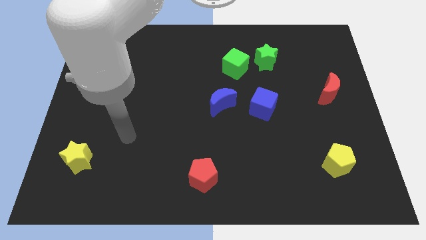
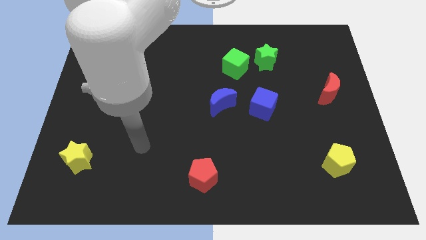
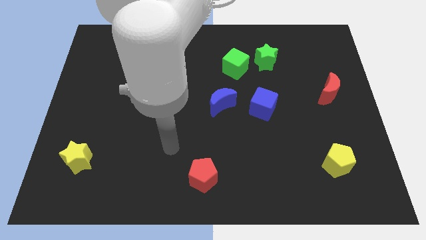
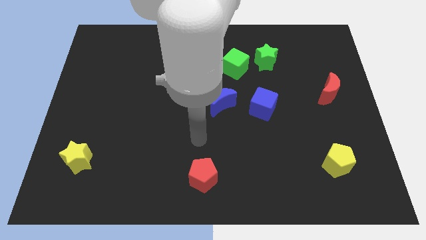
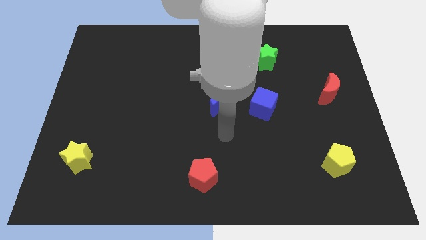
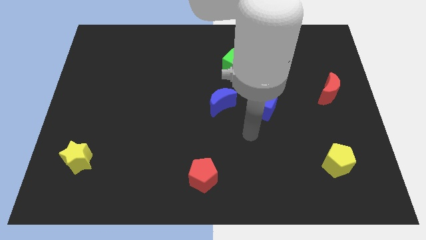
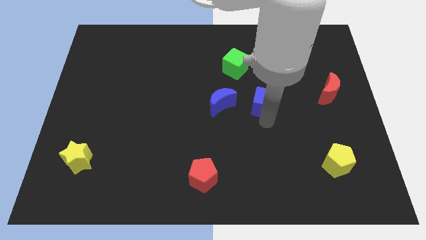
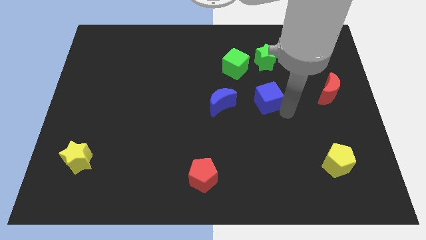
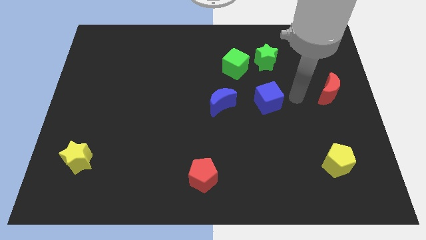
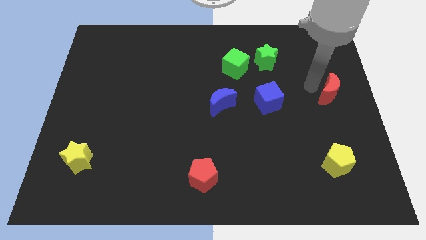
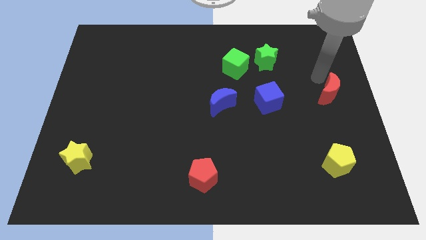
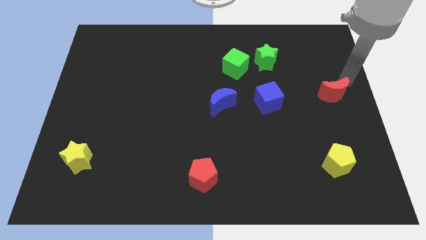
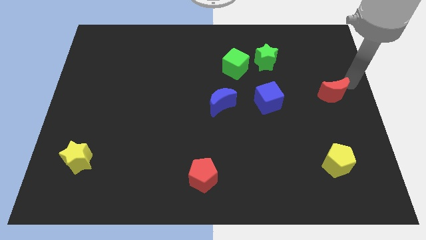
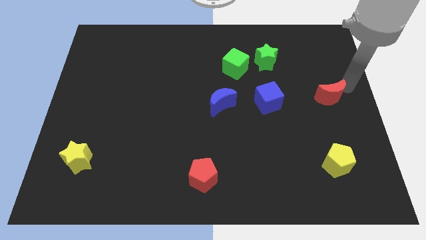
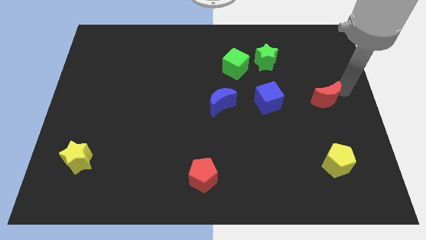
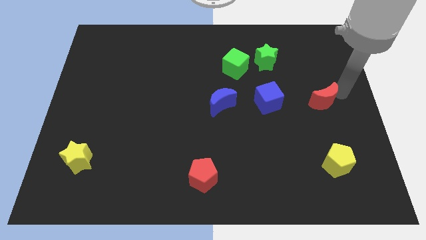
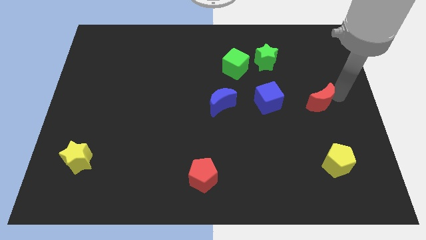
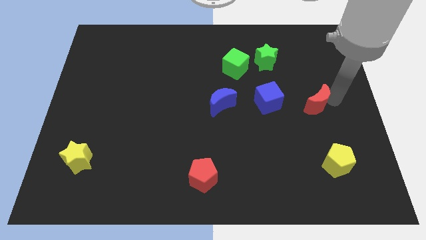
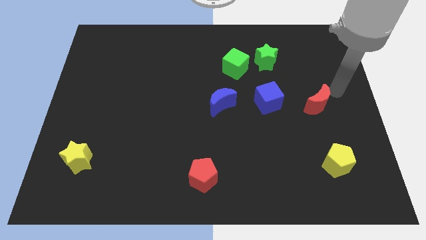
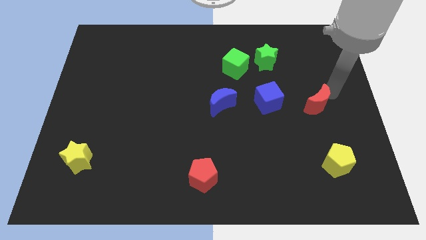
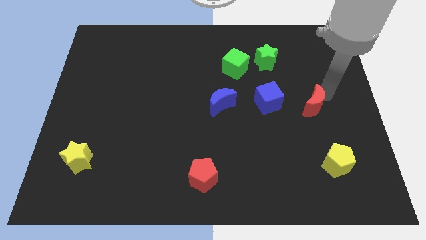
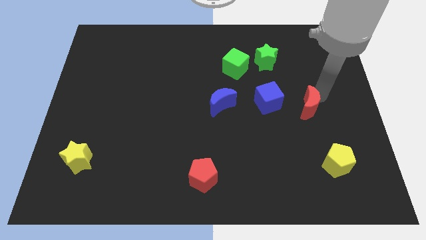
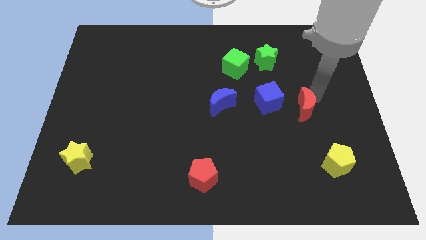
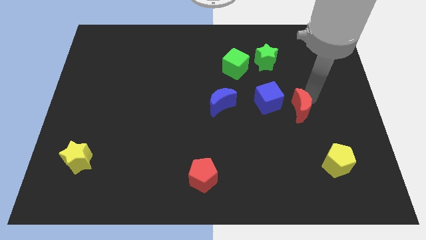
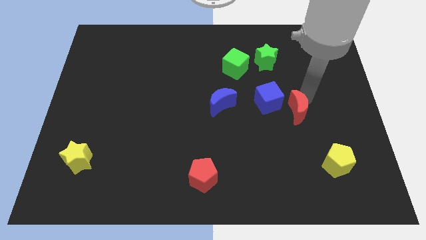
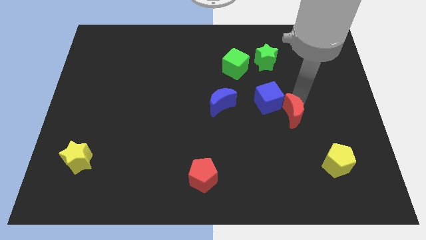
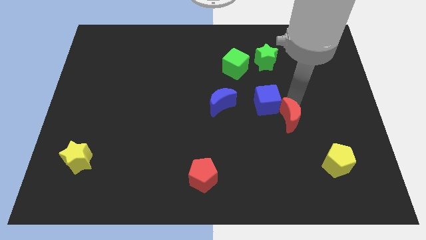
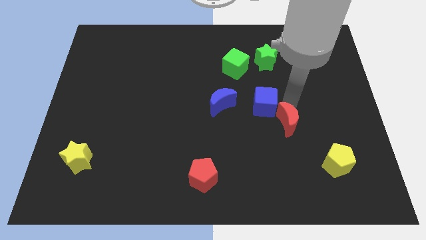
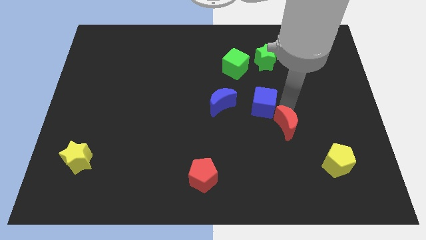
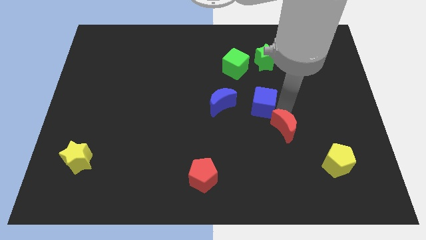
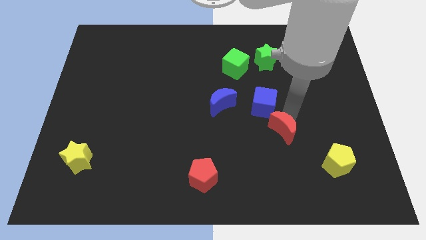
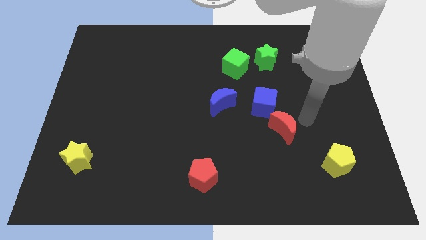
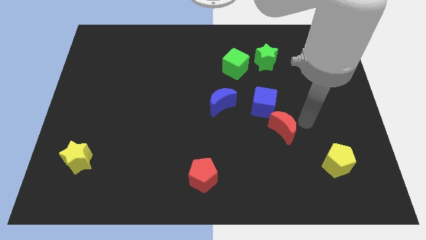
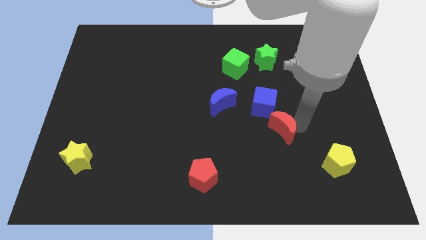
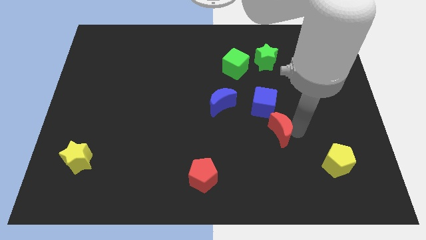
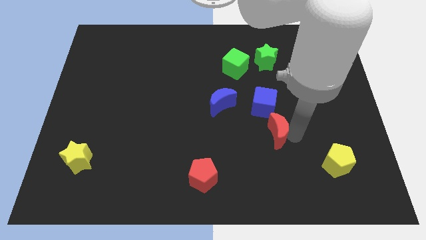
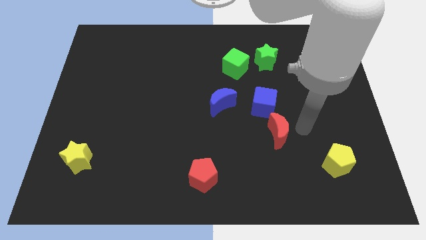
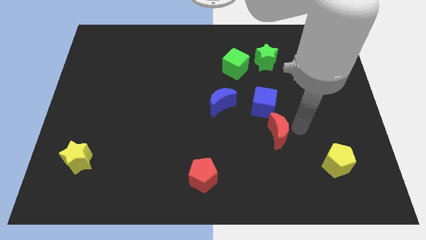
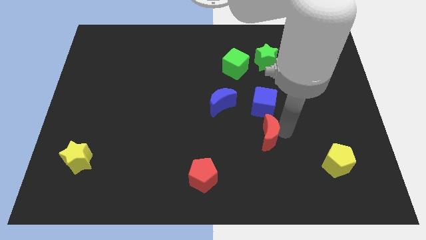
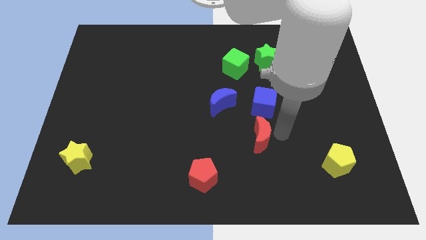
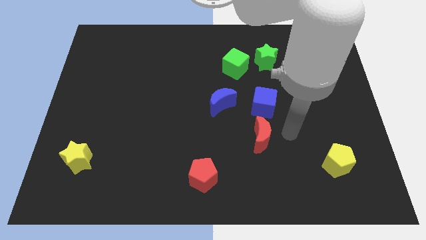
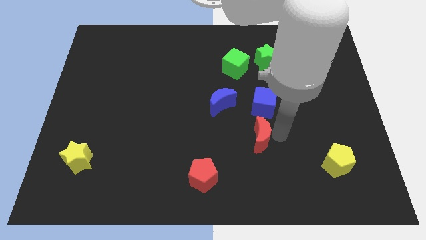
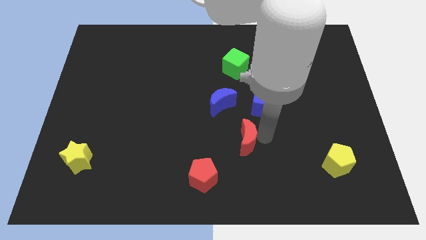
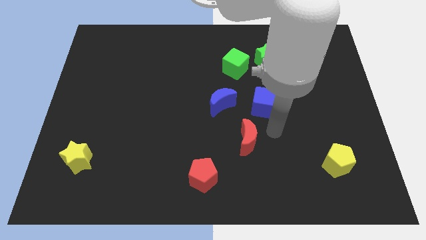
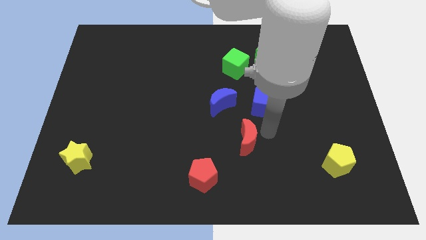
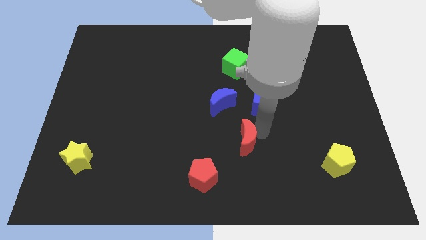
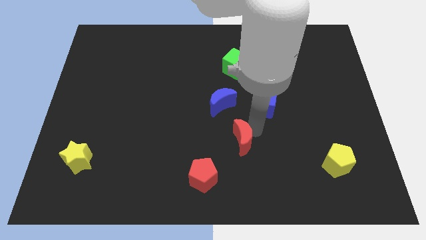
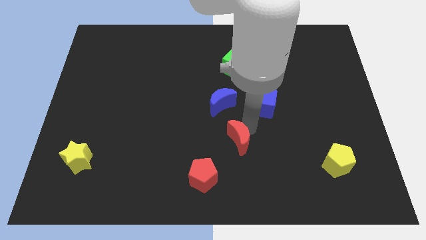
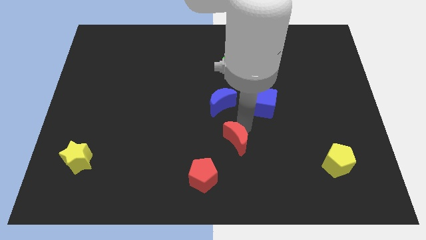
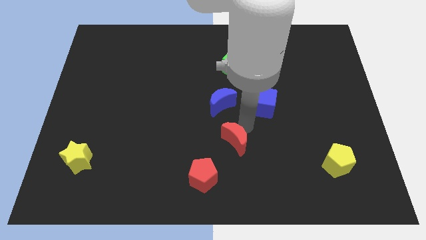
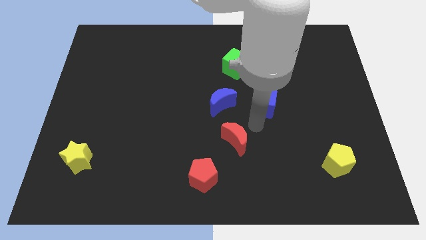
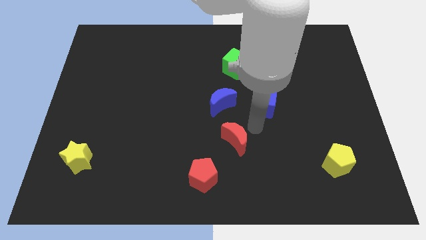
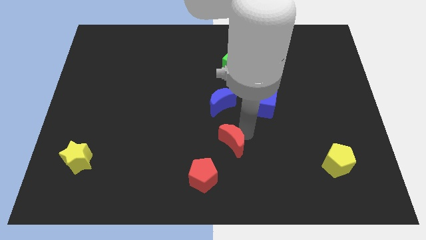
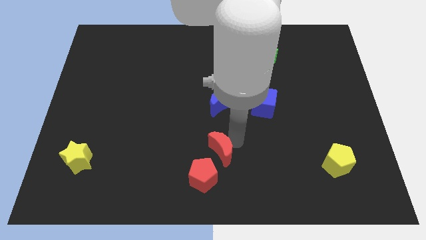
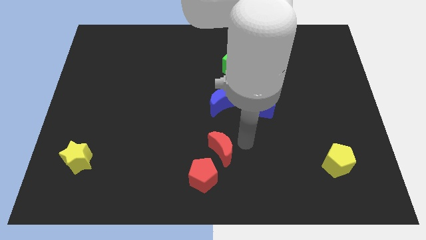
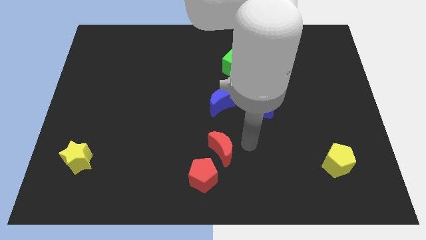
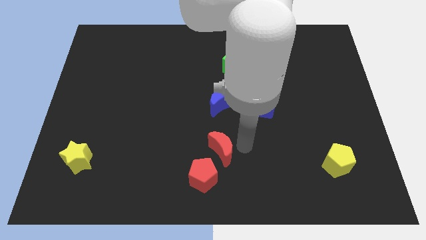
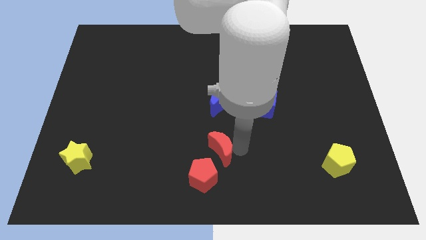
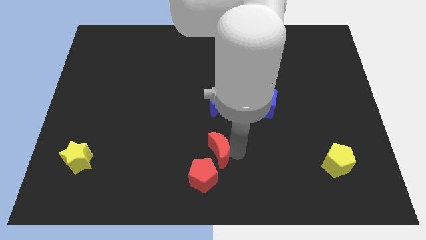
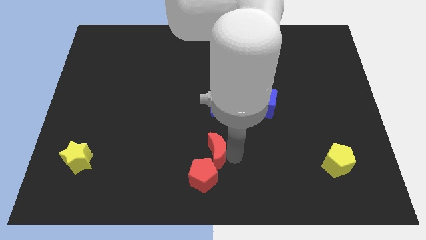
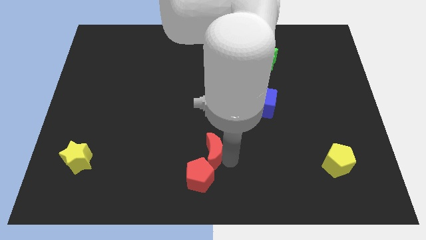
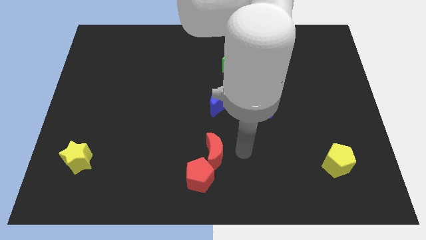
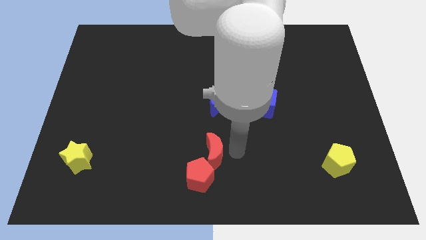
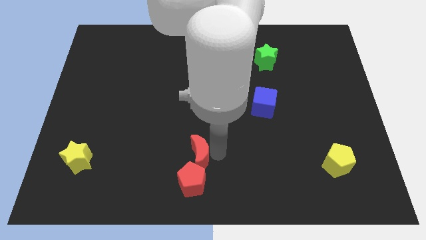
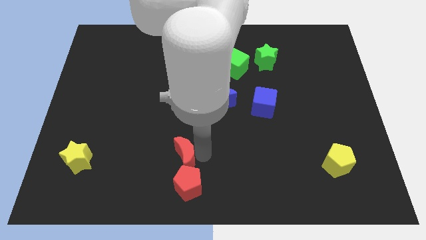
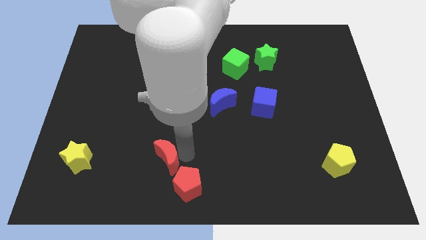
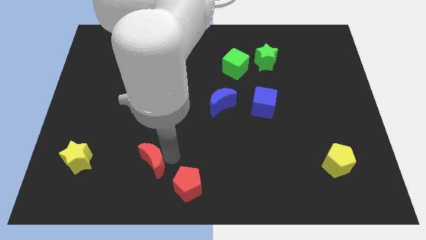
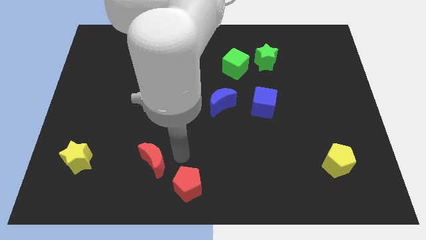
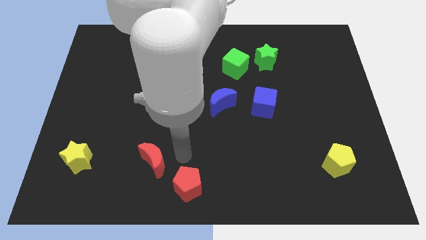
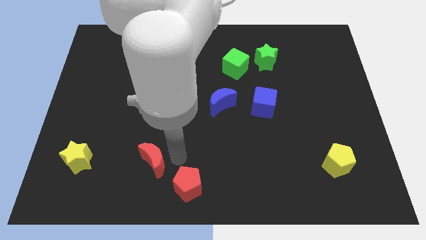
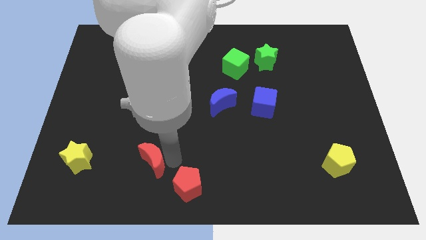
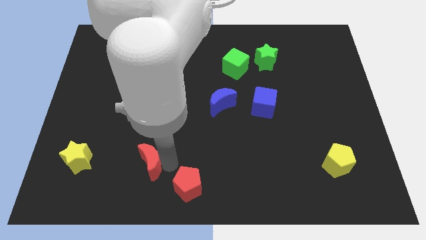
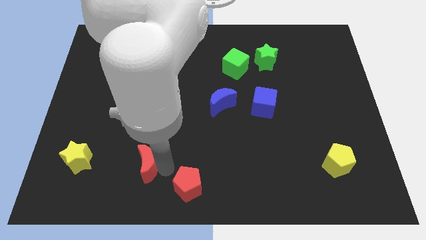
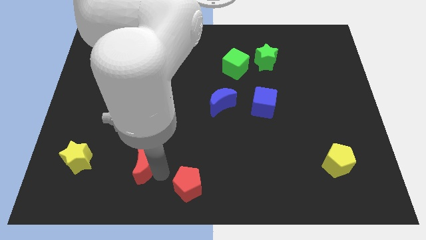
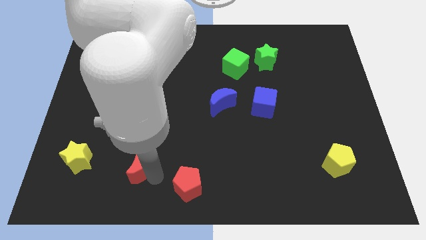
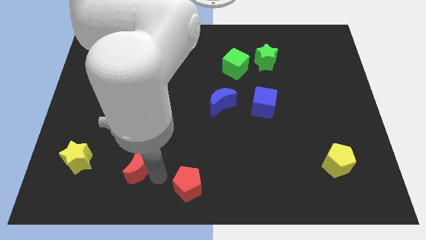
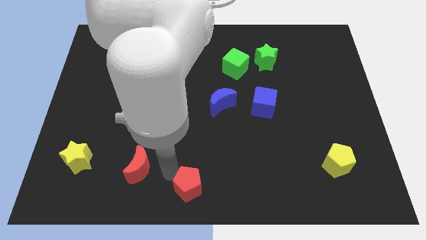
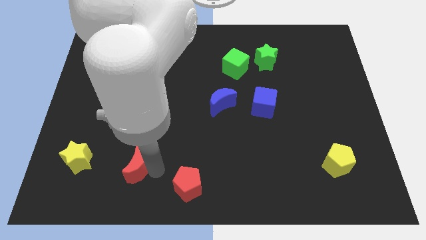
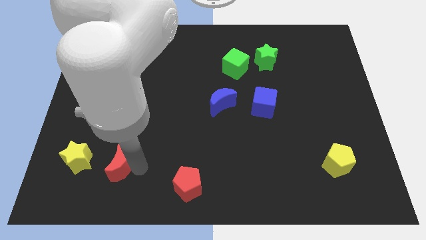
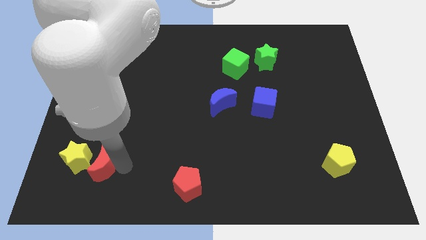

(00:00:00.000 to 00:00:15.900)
push the red moon to the yellow star
